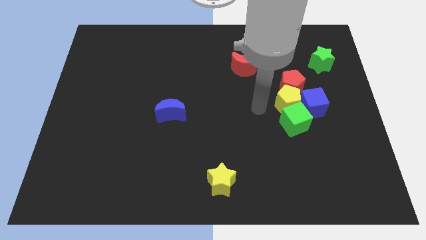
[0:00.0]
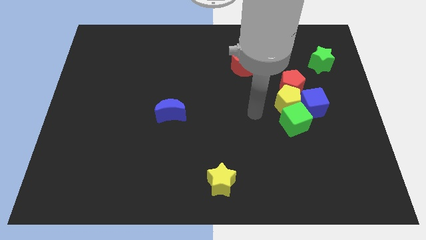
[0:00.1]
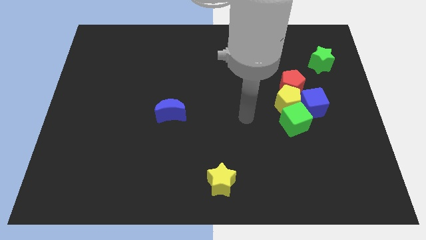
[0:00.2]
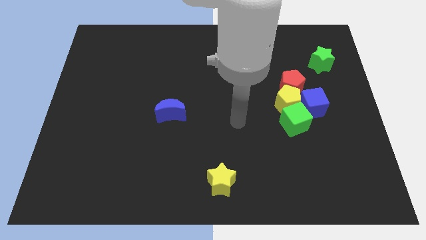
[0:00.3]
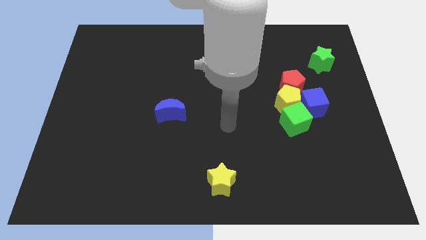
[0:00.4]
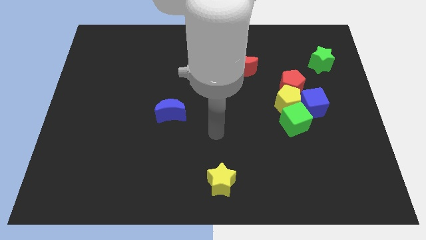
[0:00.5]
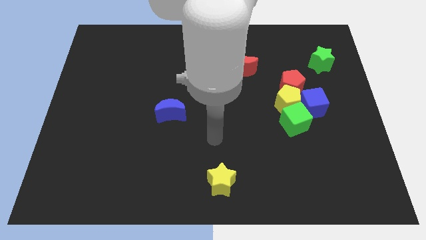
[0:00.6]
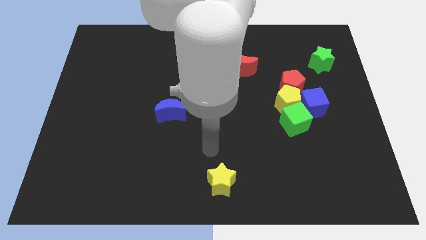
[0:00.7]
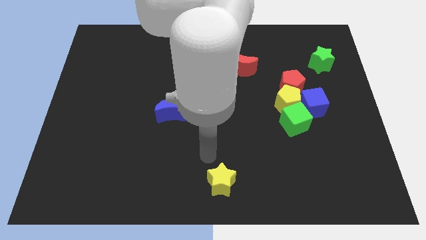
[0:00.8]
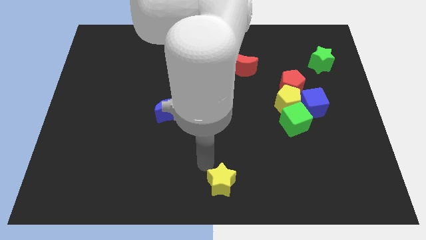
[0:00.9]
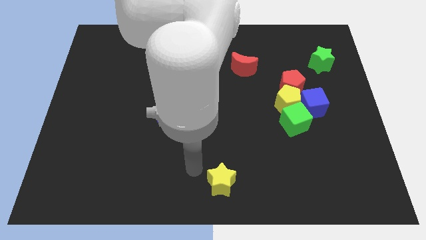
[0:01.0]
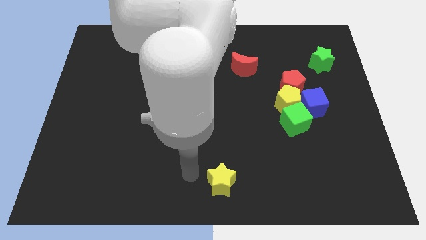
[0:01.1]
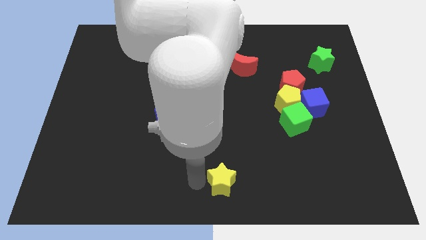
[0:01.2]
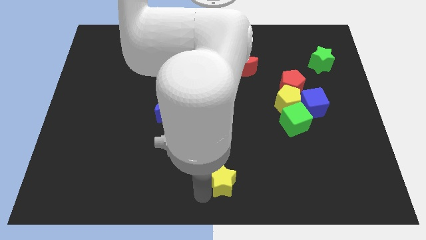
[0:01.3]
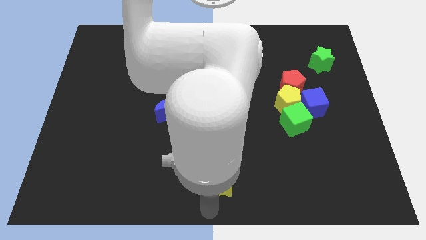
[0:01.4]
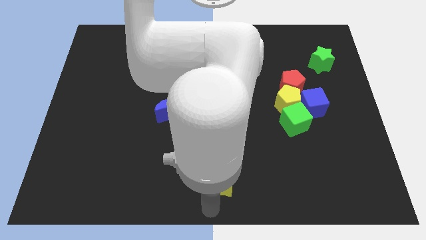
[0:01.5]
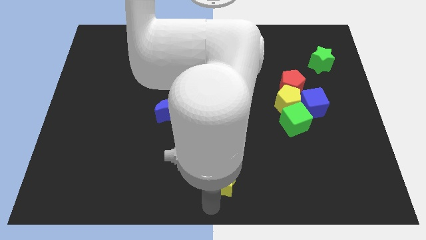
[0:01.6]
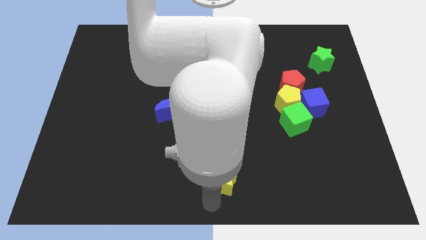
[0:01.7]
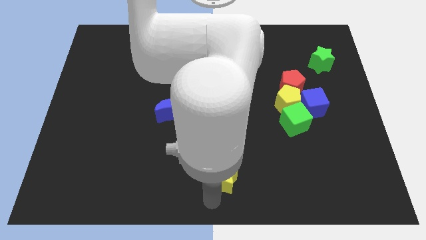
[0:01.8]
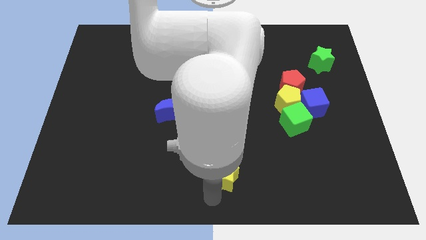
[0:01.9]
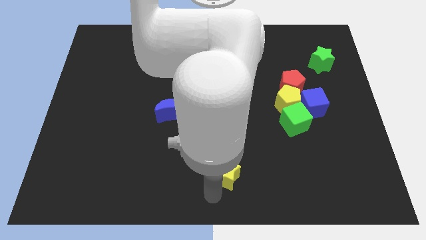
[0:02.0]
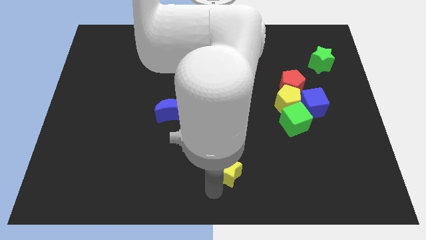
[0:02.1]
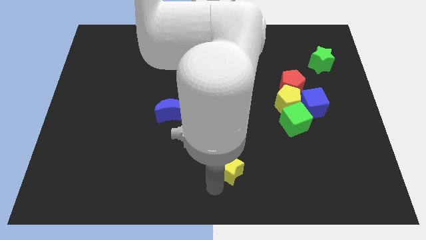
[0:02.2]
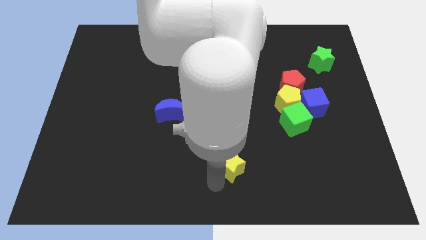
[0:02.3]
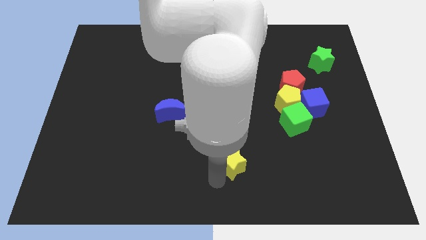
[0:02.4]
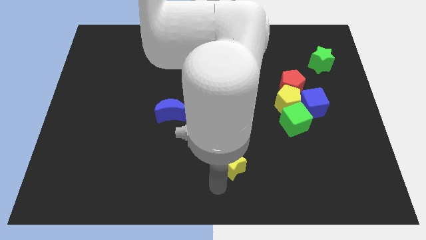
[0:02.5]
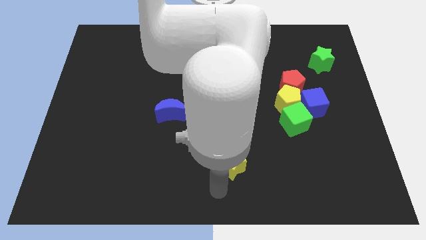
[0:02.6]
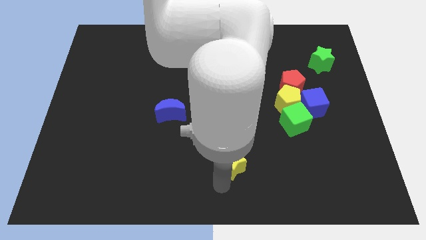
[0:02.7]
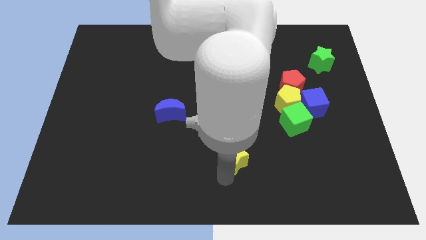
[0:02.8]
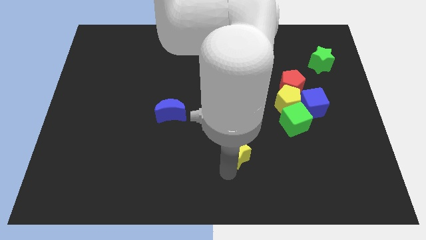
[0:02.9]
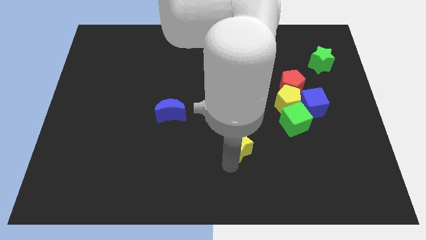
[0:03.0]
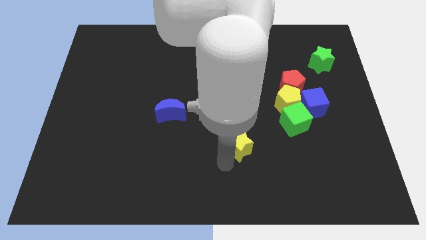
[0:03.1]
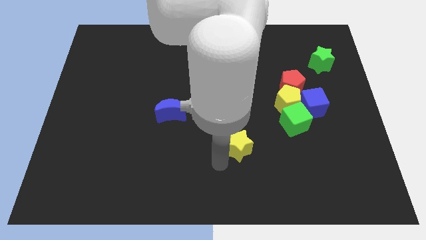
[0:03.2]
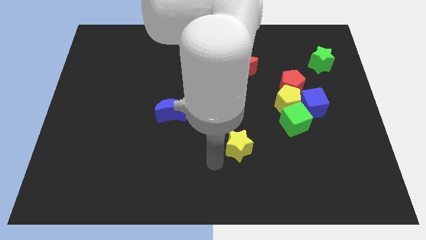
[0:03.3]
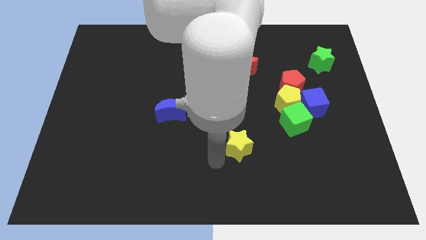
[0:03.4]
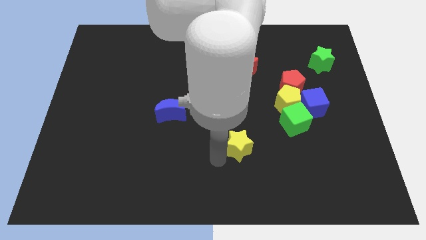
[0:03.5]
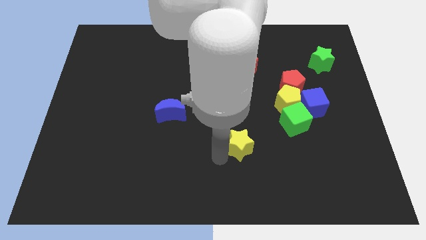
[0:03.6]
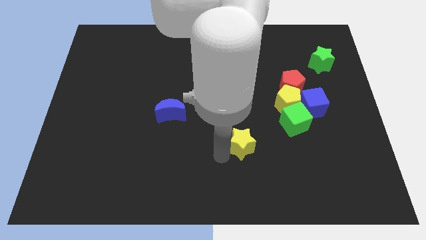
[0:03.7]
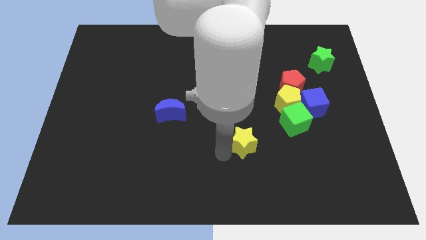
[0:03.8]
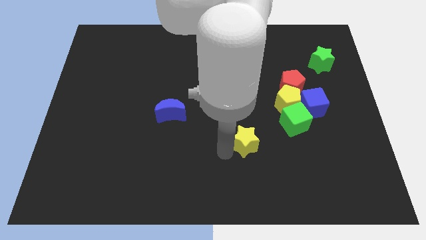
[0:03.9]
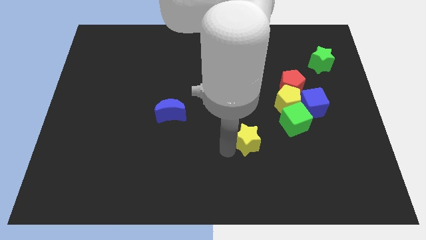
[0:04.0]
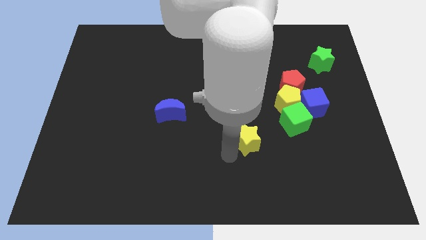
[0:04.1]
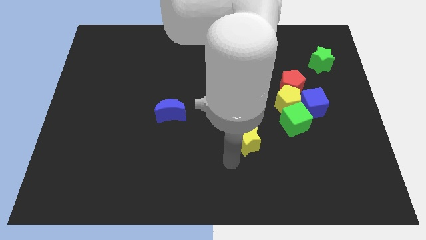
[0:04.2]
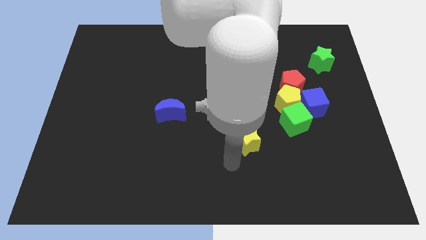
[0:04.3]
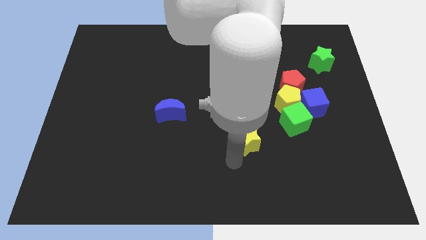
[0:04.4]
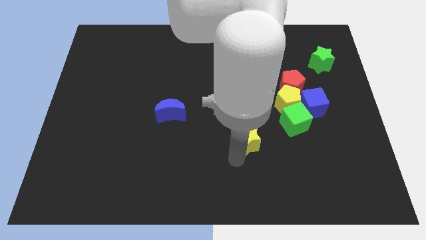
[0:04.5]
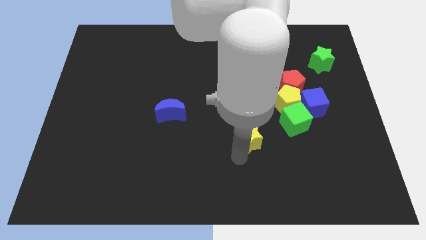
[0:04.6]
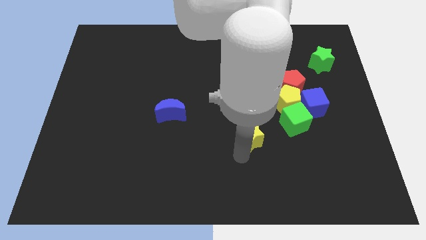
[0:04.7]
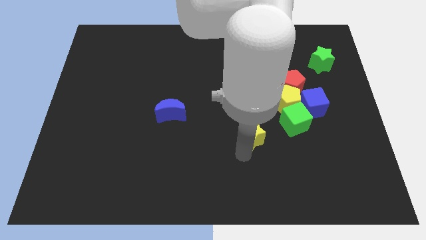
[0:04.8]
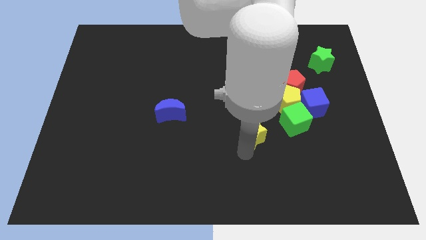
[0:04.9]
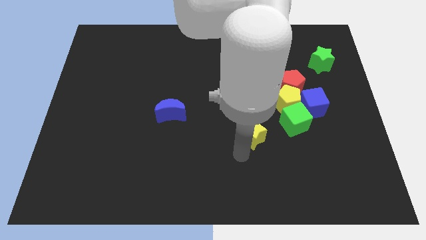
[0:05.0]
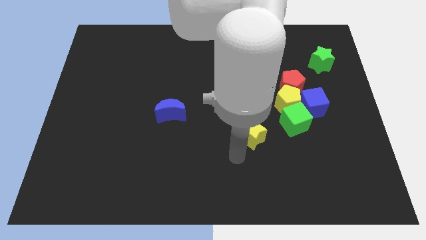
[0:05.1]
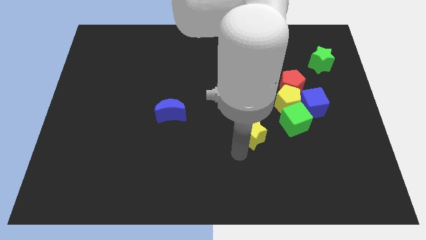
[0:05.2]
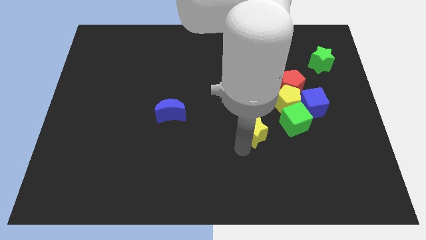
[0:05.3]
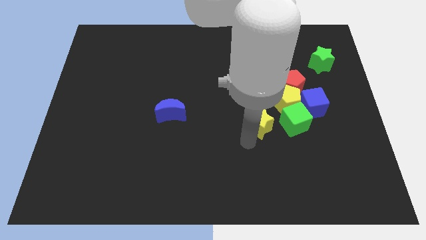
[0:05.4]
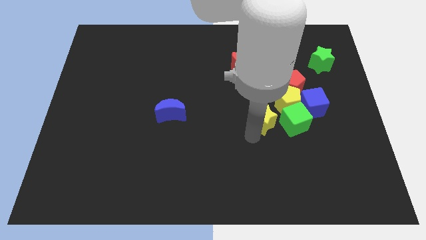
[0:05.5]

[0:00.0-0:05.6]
put the yellow star to the top left of the green cube

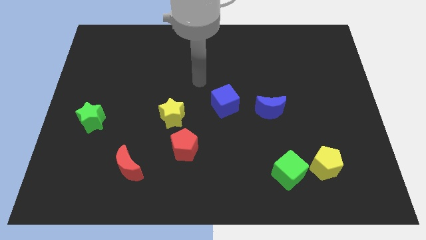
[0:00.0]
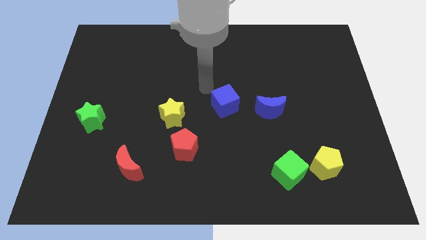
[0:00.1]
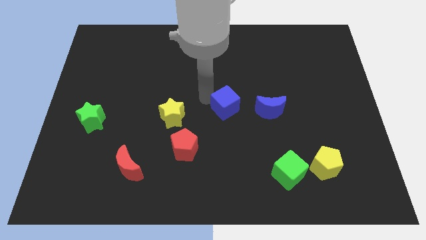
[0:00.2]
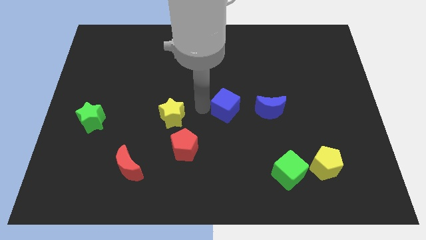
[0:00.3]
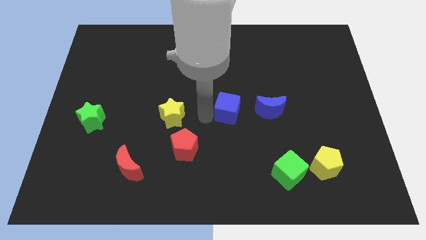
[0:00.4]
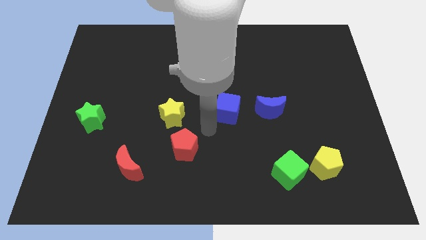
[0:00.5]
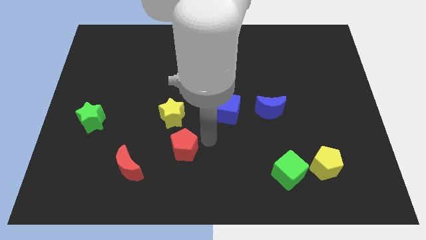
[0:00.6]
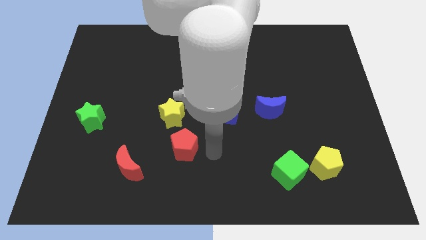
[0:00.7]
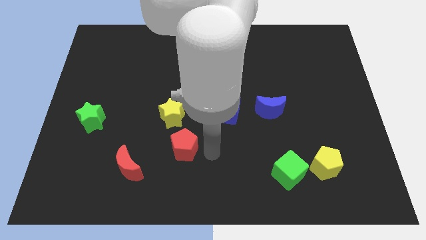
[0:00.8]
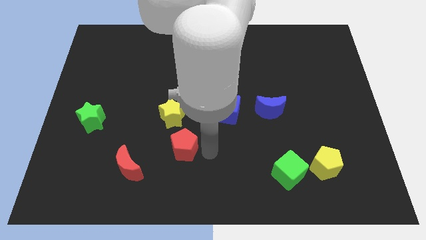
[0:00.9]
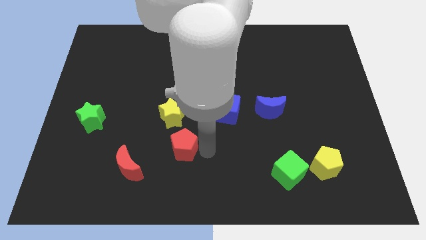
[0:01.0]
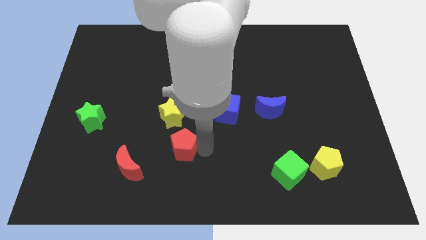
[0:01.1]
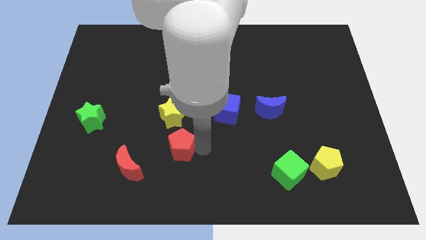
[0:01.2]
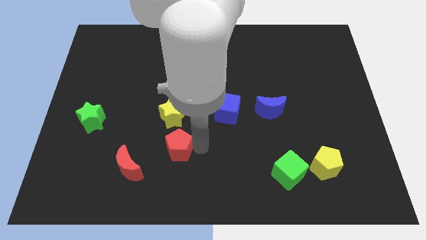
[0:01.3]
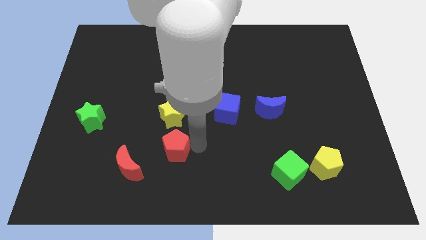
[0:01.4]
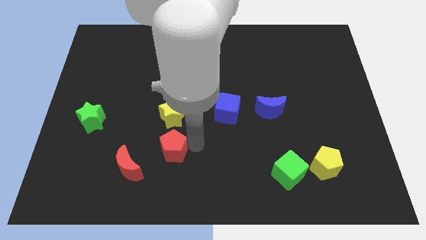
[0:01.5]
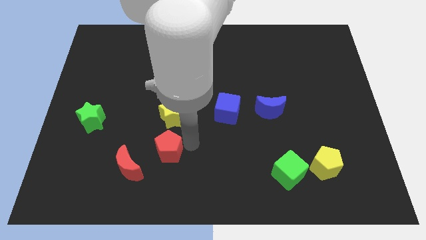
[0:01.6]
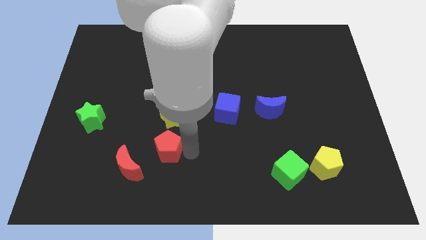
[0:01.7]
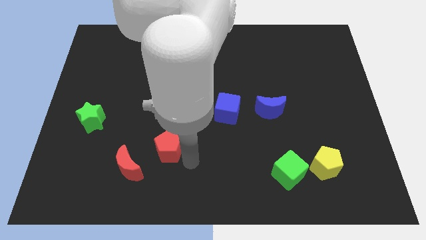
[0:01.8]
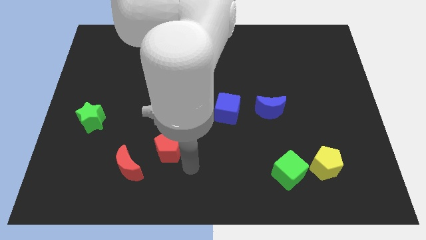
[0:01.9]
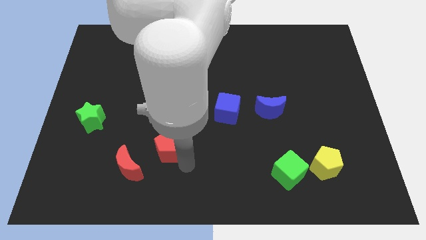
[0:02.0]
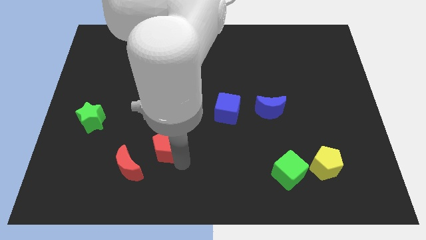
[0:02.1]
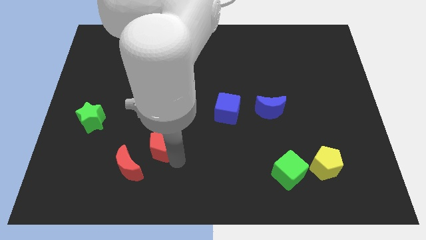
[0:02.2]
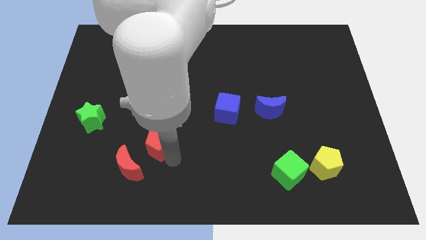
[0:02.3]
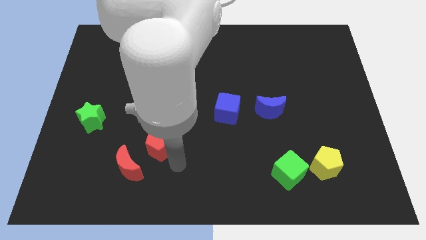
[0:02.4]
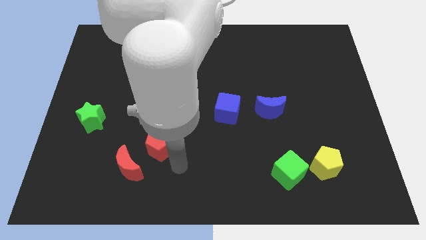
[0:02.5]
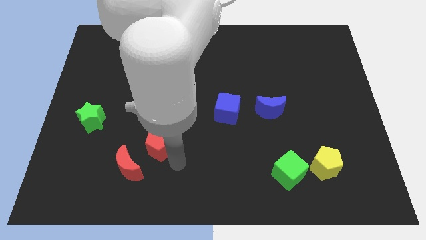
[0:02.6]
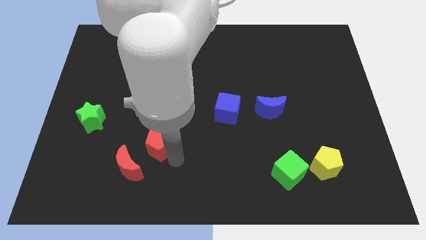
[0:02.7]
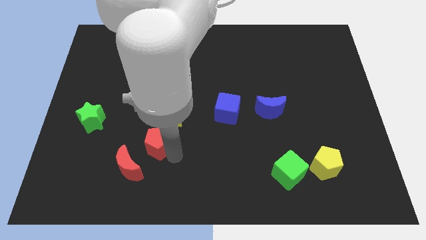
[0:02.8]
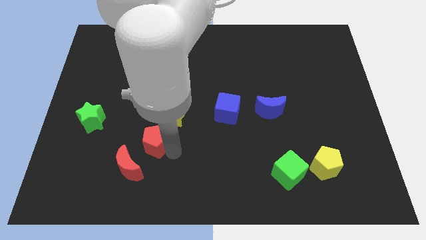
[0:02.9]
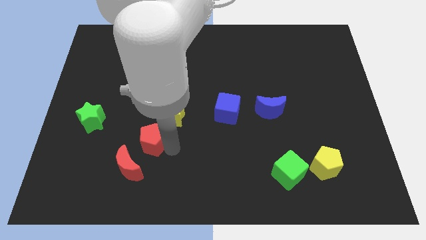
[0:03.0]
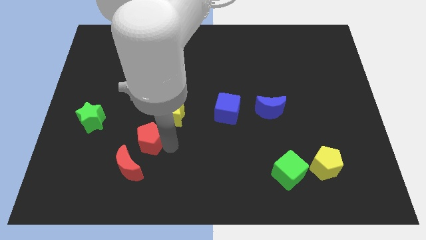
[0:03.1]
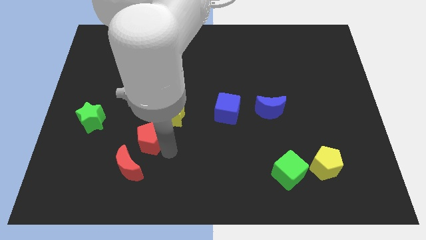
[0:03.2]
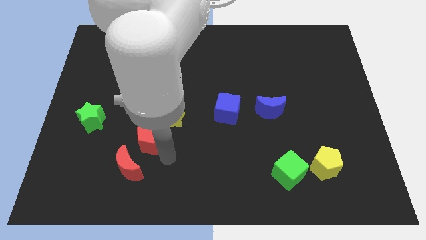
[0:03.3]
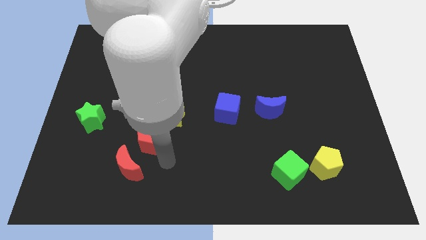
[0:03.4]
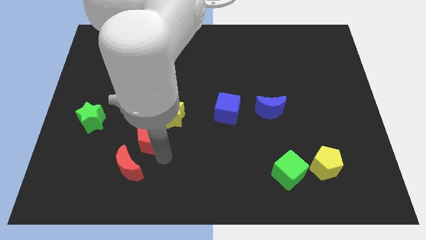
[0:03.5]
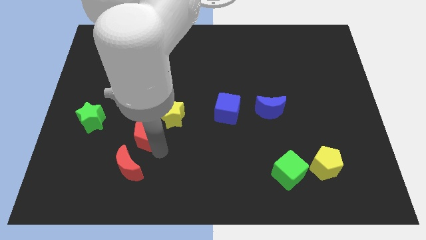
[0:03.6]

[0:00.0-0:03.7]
put the red pentagon right of the green star
